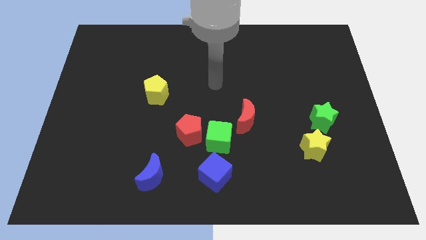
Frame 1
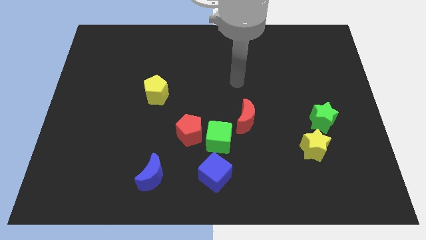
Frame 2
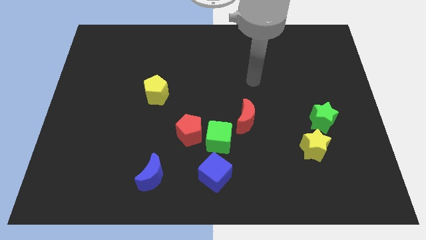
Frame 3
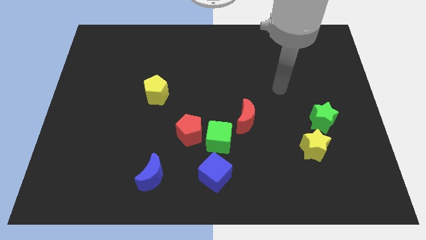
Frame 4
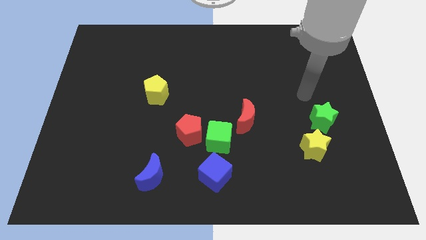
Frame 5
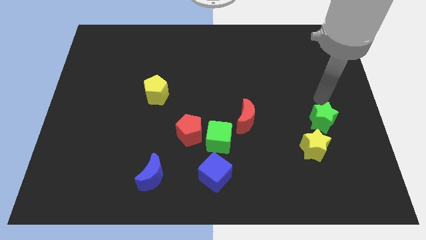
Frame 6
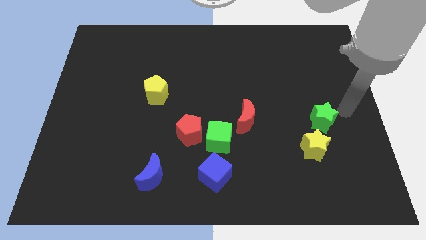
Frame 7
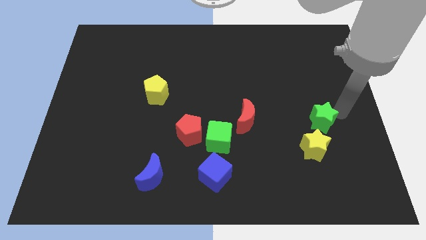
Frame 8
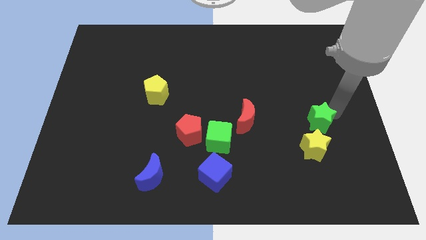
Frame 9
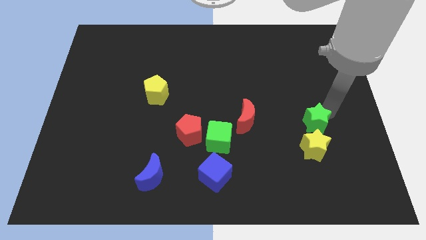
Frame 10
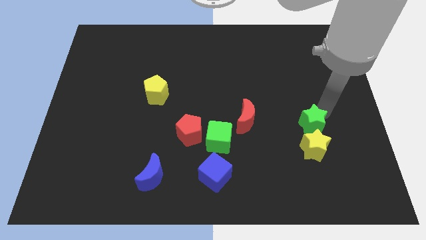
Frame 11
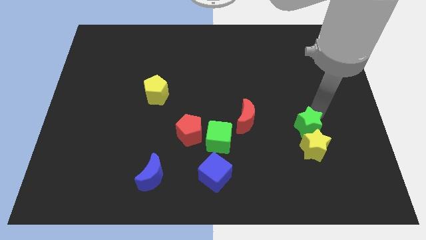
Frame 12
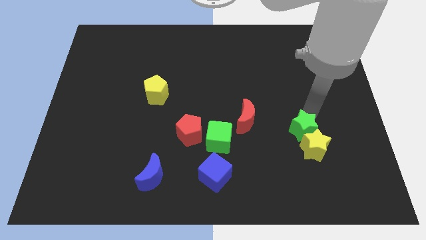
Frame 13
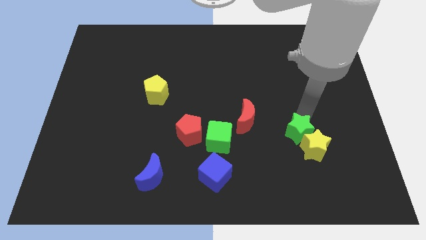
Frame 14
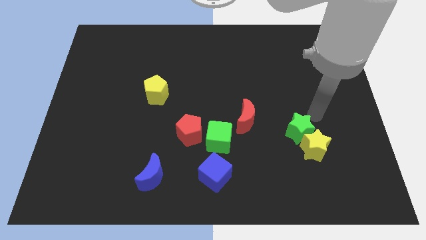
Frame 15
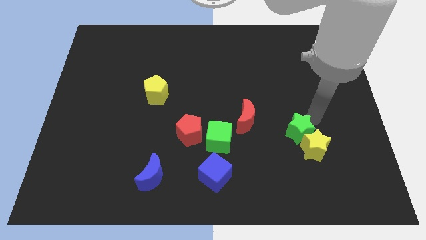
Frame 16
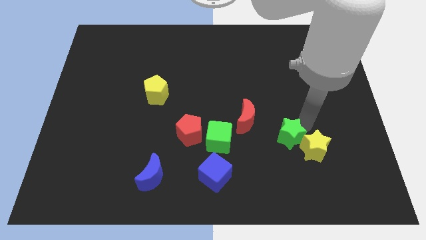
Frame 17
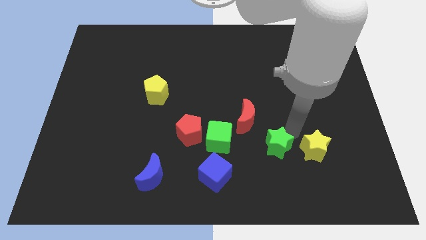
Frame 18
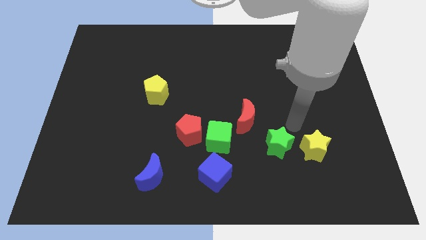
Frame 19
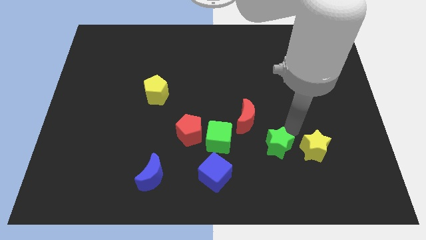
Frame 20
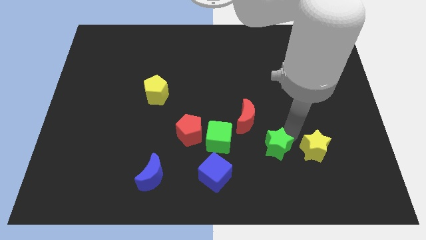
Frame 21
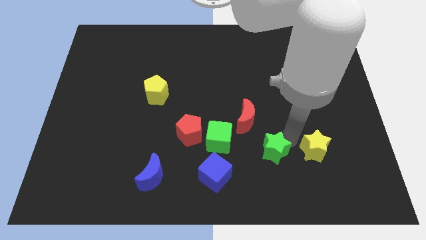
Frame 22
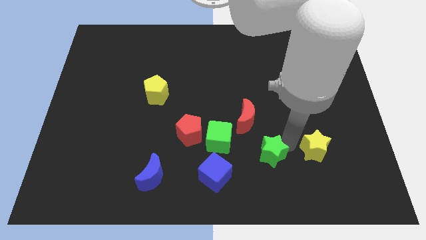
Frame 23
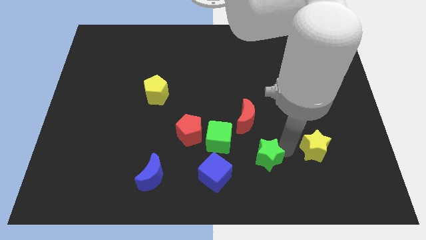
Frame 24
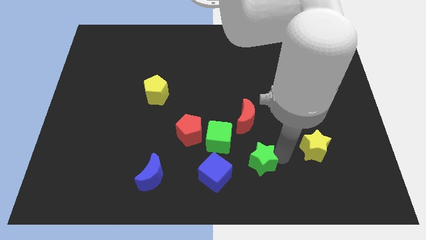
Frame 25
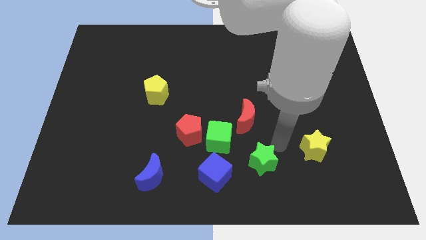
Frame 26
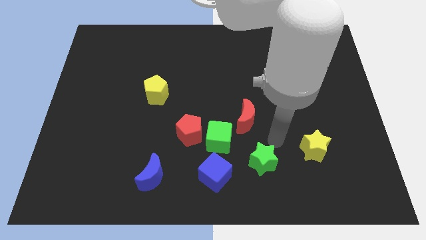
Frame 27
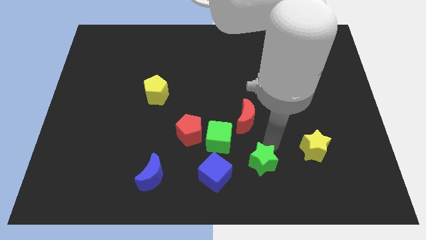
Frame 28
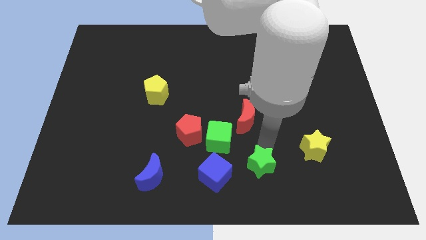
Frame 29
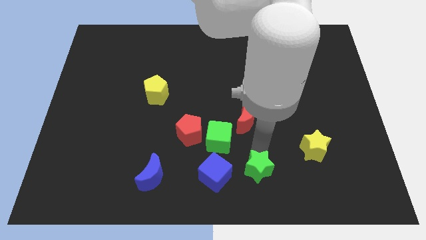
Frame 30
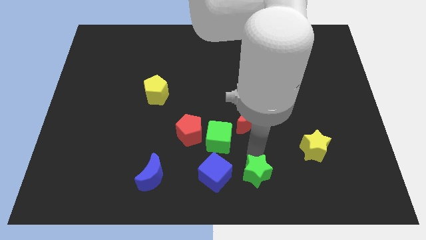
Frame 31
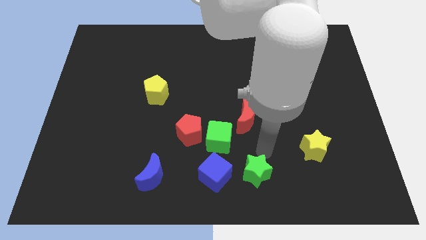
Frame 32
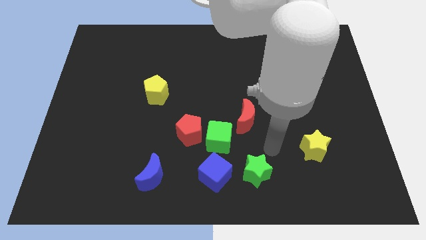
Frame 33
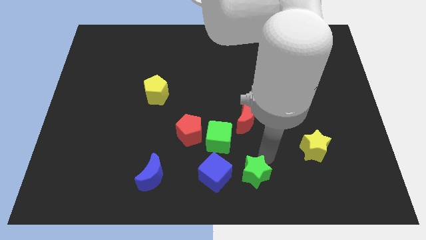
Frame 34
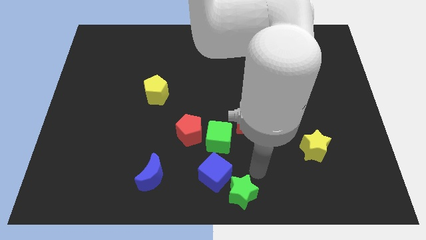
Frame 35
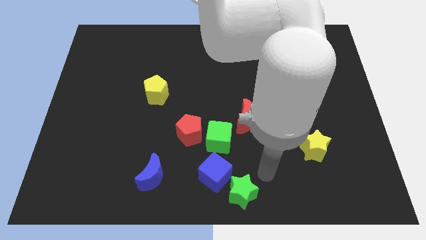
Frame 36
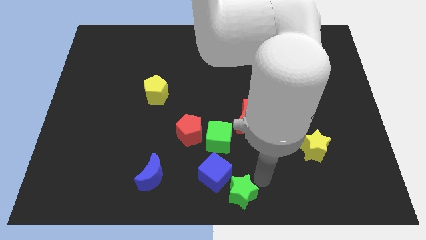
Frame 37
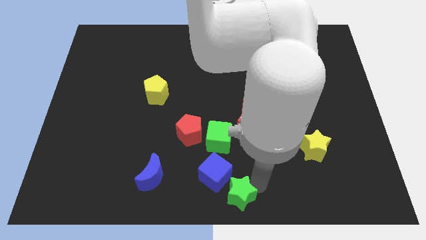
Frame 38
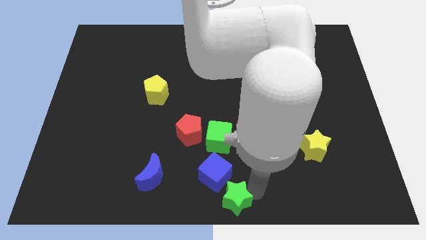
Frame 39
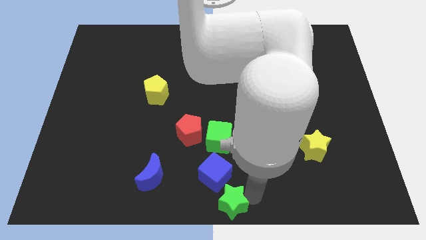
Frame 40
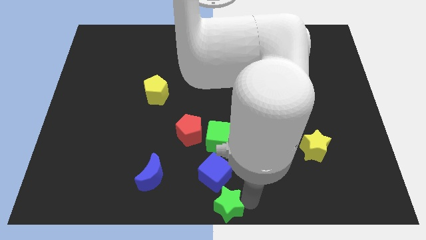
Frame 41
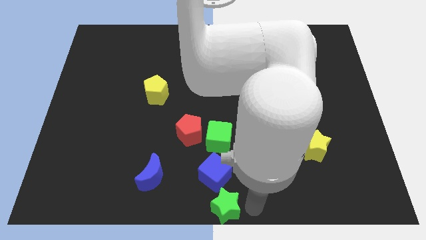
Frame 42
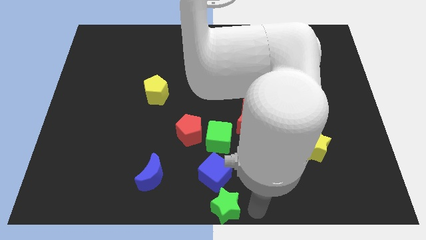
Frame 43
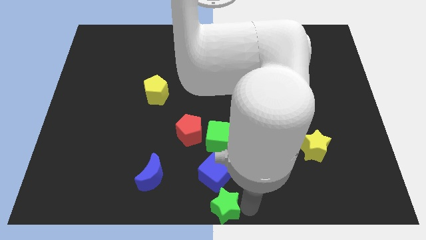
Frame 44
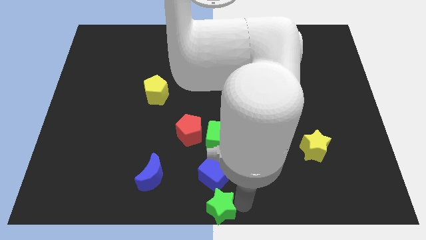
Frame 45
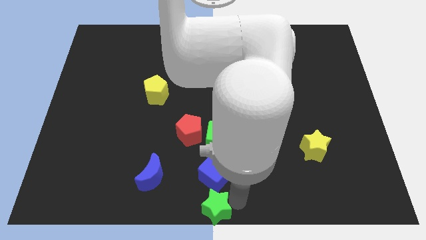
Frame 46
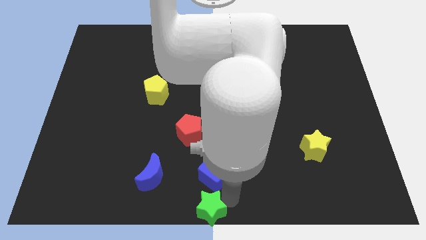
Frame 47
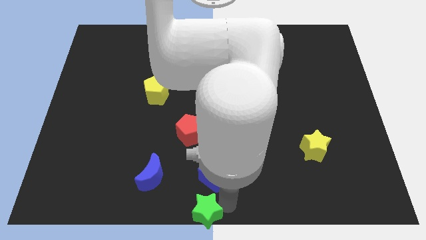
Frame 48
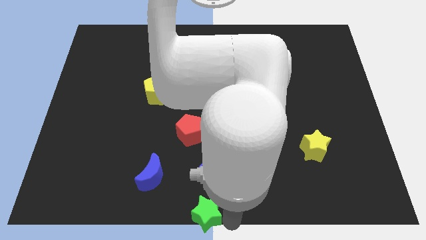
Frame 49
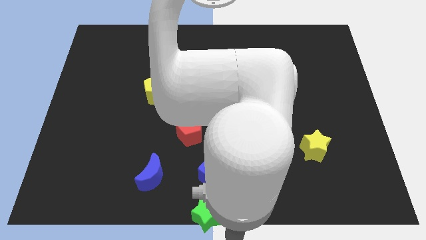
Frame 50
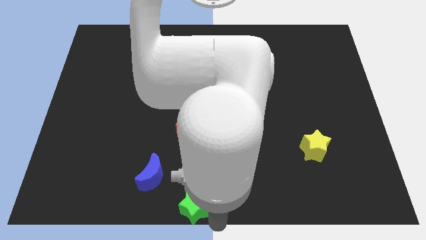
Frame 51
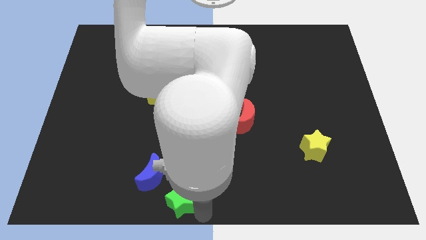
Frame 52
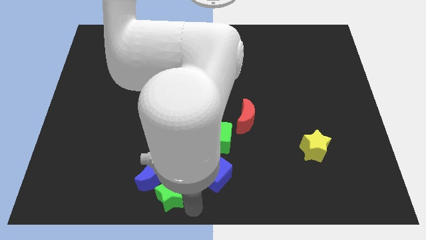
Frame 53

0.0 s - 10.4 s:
push the green star close to the blue moon

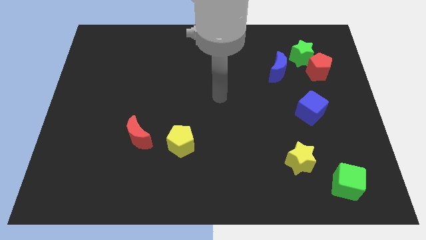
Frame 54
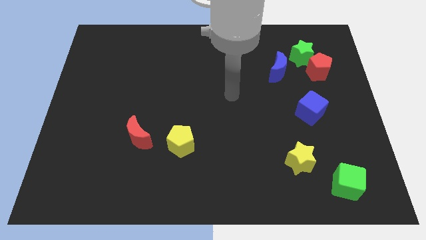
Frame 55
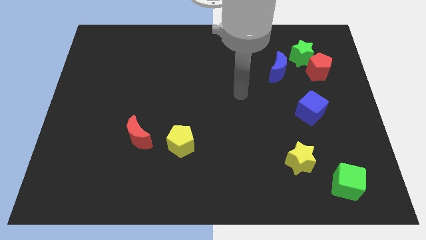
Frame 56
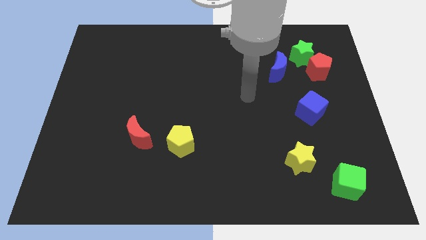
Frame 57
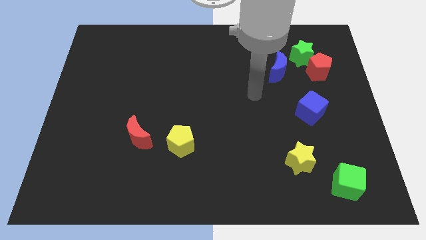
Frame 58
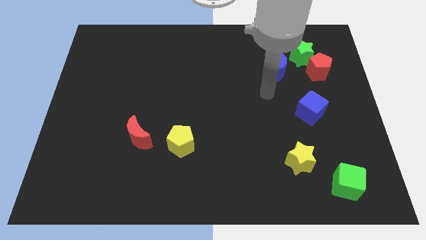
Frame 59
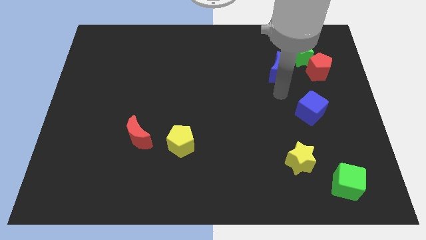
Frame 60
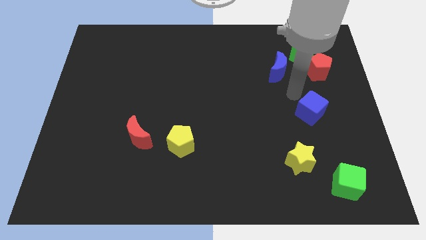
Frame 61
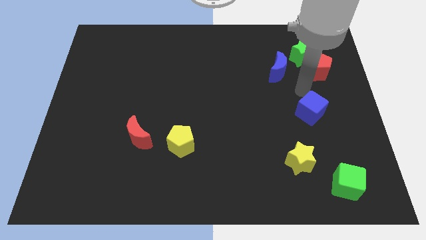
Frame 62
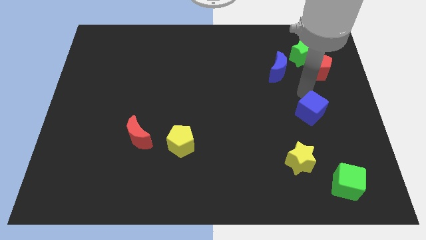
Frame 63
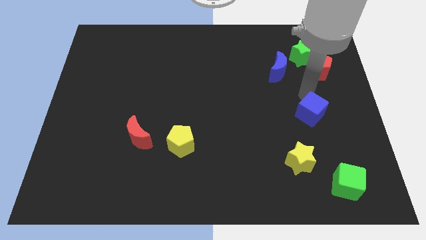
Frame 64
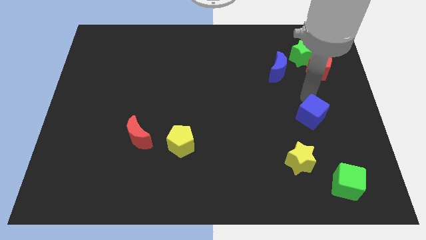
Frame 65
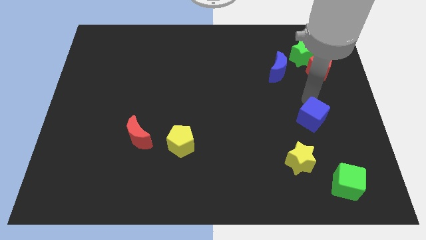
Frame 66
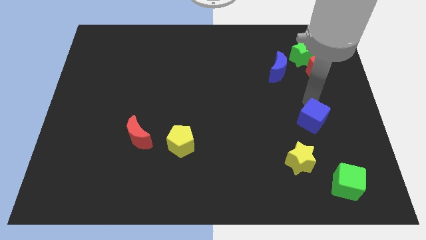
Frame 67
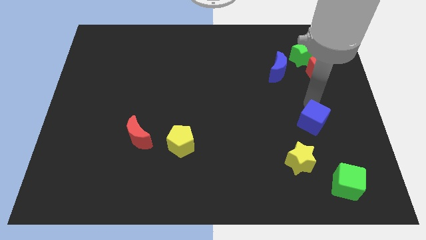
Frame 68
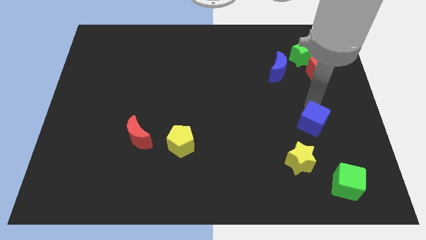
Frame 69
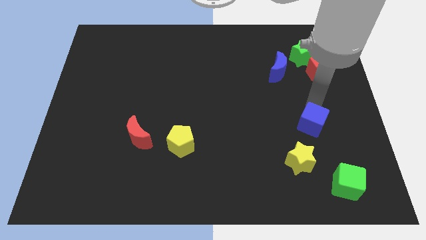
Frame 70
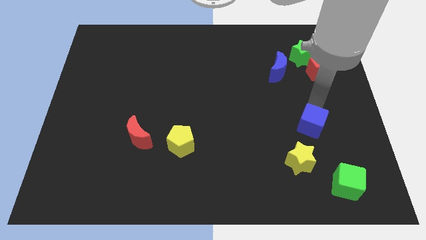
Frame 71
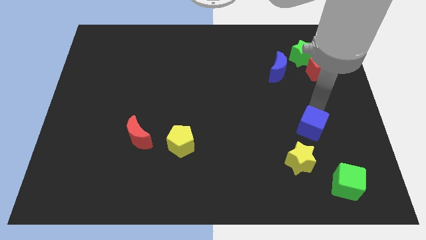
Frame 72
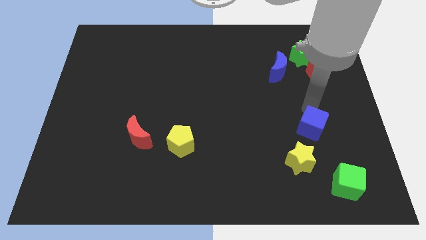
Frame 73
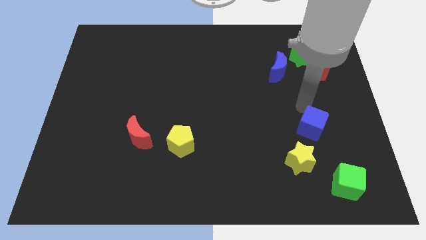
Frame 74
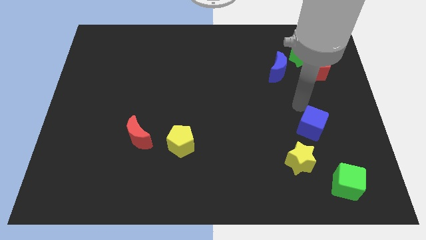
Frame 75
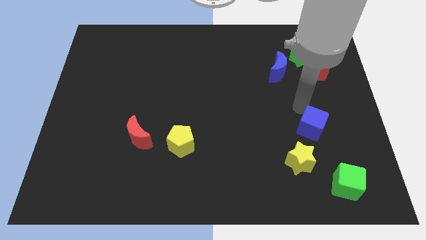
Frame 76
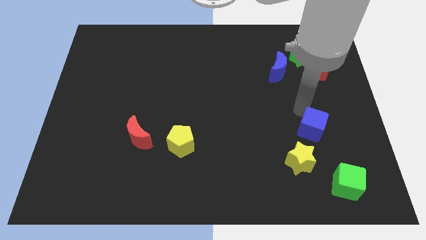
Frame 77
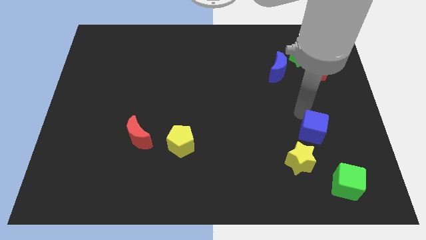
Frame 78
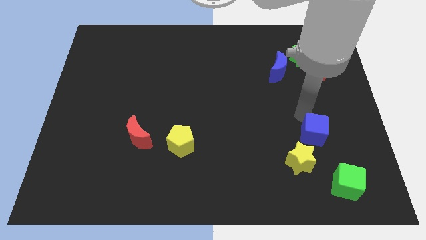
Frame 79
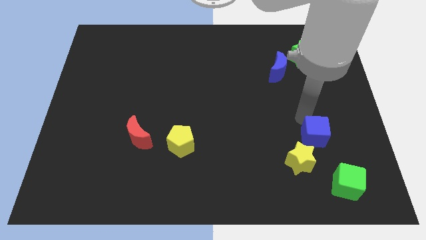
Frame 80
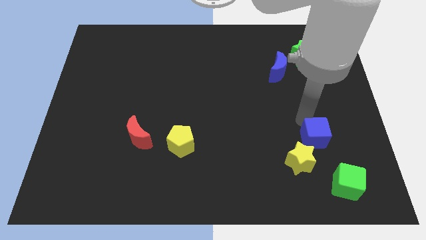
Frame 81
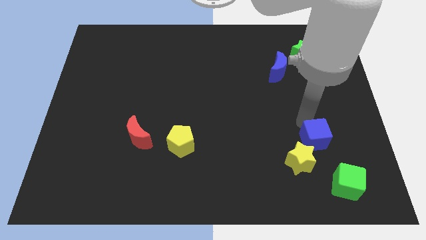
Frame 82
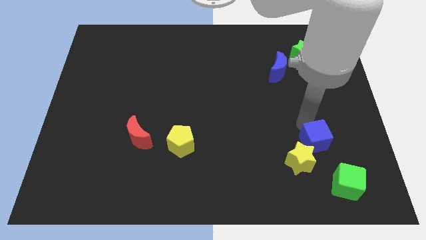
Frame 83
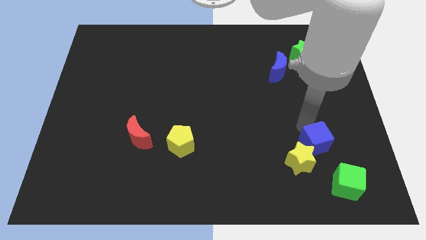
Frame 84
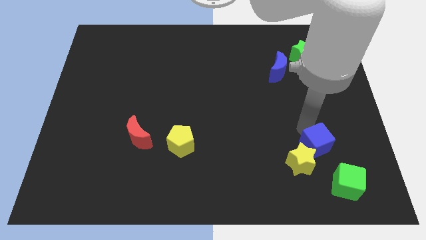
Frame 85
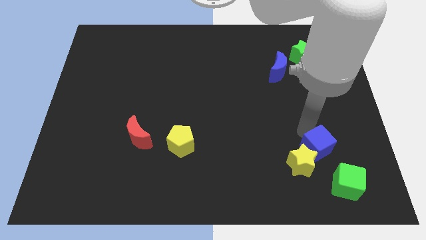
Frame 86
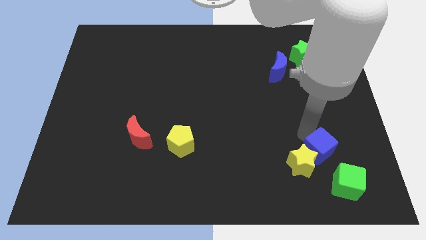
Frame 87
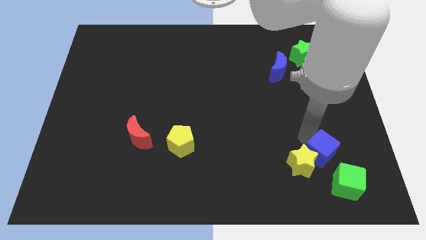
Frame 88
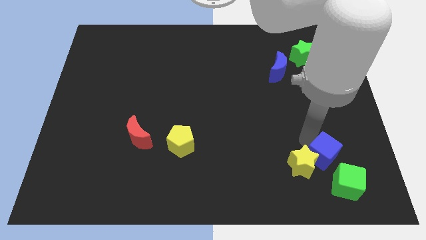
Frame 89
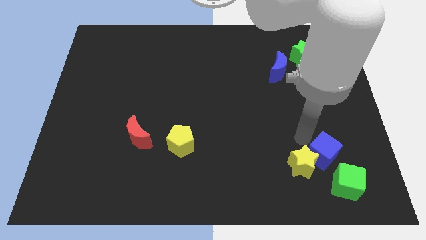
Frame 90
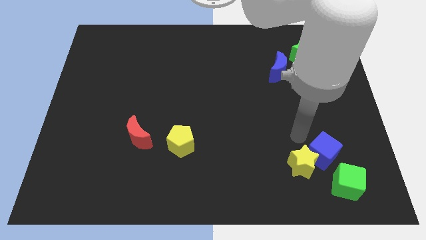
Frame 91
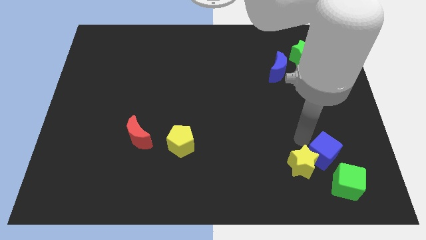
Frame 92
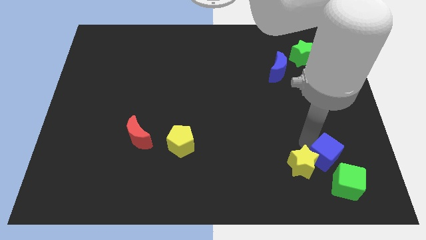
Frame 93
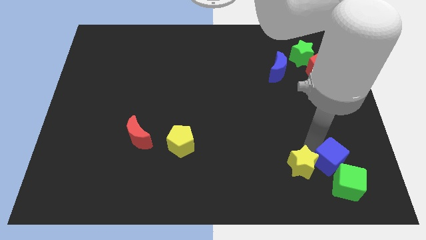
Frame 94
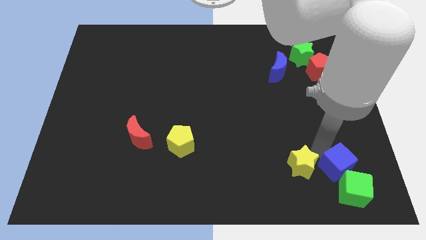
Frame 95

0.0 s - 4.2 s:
put the blue cube to the green cube
